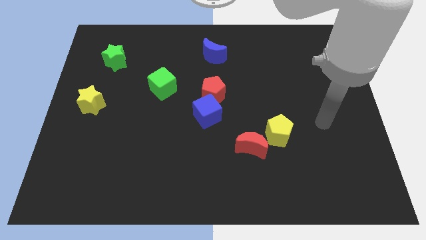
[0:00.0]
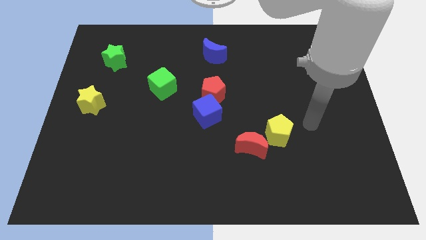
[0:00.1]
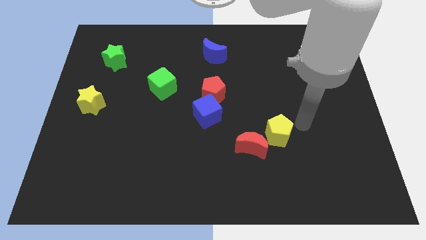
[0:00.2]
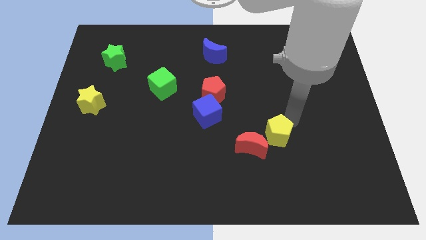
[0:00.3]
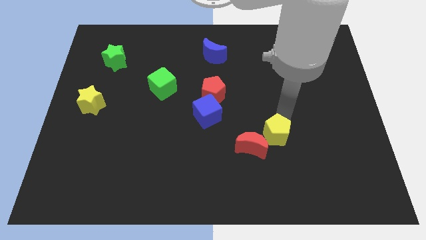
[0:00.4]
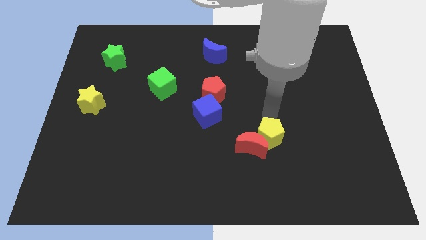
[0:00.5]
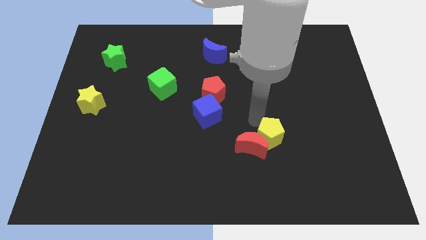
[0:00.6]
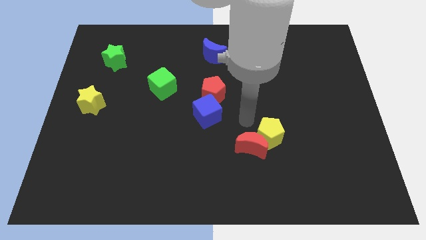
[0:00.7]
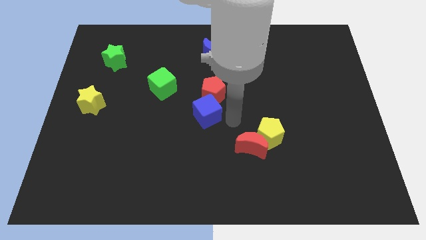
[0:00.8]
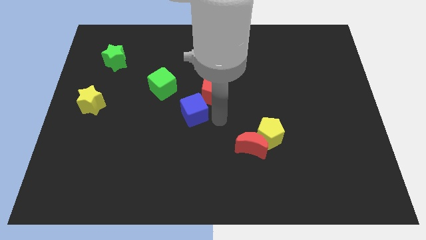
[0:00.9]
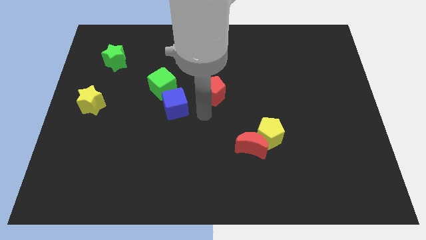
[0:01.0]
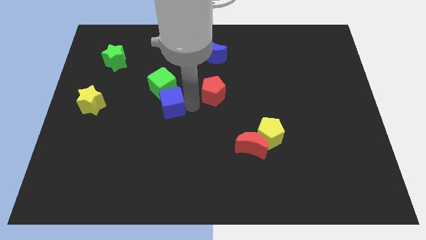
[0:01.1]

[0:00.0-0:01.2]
separate the red pentagon from the blue cube

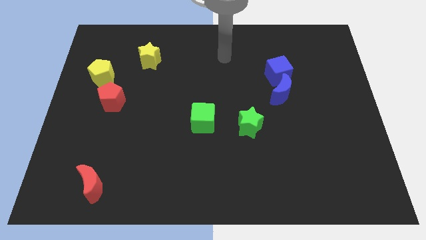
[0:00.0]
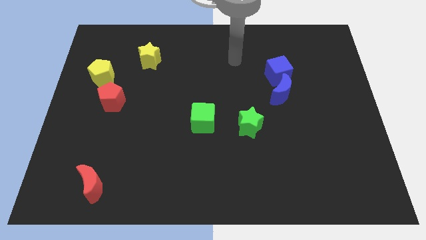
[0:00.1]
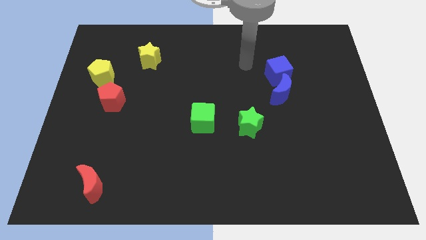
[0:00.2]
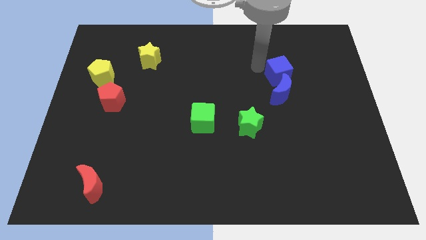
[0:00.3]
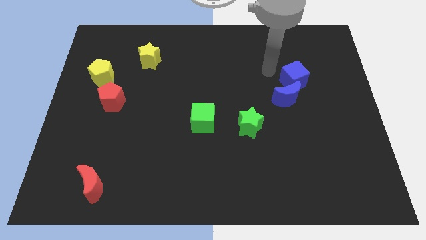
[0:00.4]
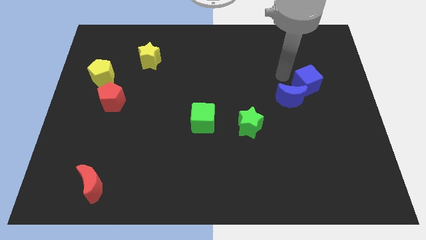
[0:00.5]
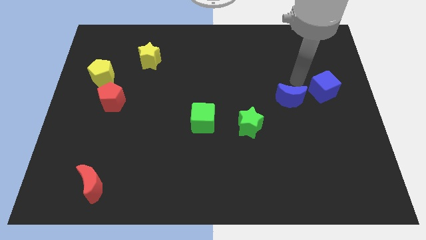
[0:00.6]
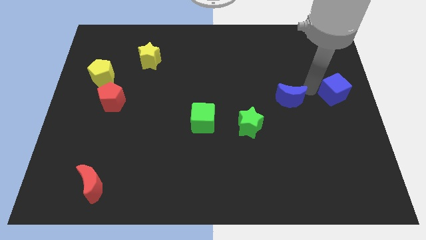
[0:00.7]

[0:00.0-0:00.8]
move the blue moon away from the blue cube

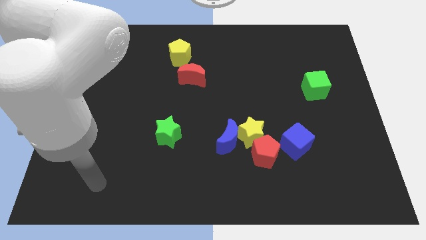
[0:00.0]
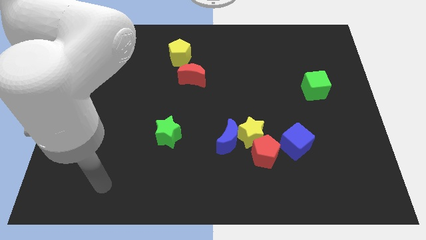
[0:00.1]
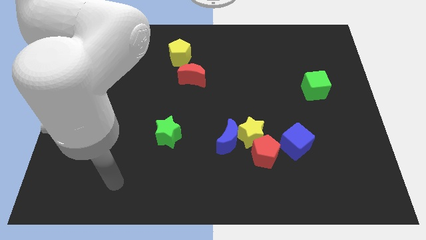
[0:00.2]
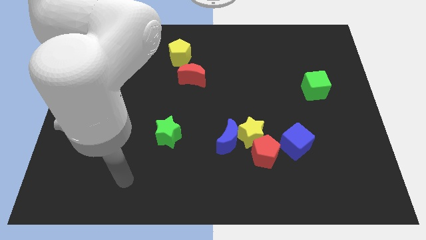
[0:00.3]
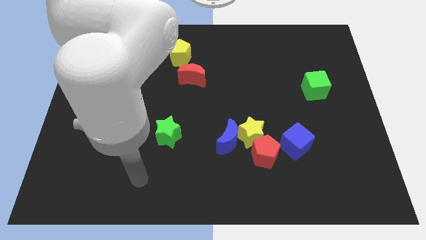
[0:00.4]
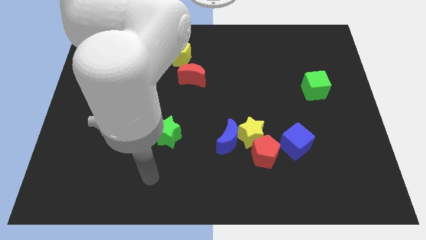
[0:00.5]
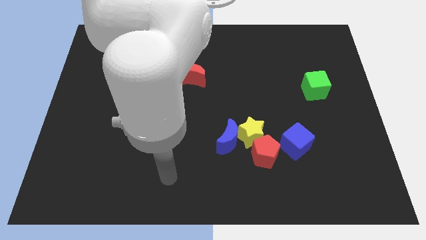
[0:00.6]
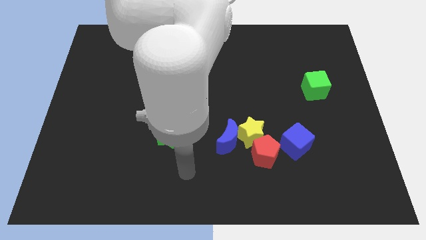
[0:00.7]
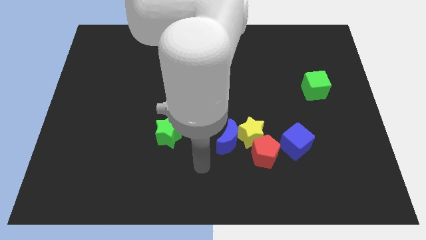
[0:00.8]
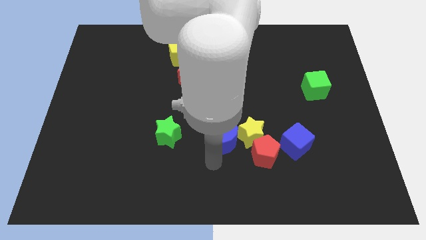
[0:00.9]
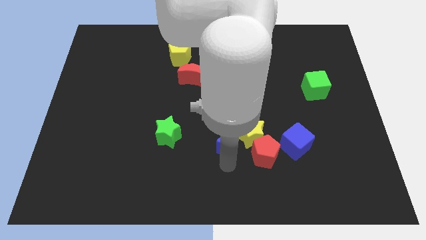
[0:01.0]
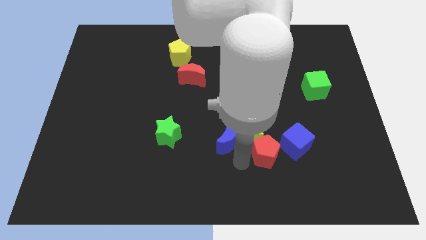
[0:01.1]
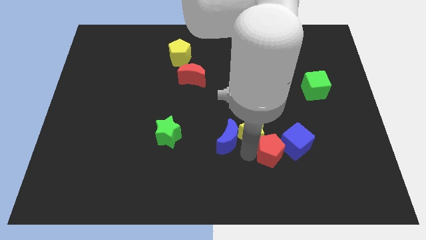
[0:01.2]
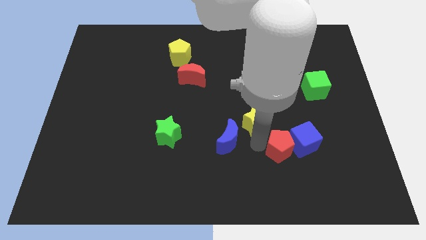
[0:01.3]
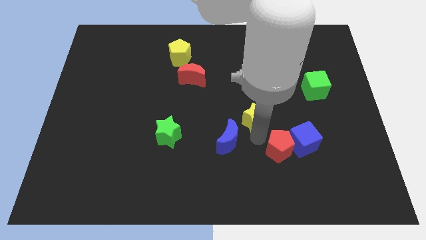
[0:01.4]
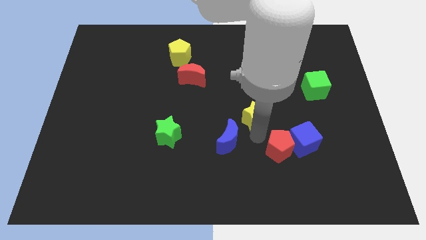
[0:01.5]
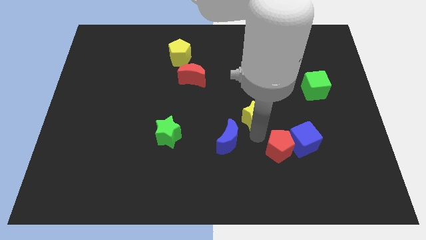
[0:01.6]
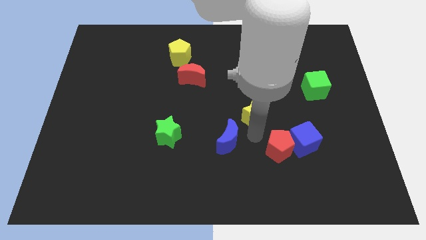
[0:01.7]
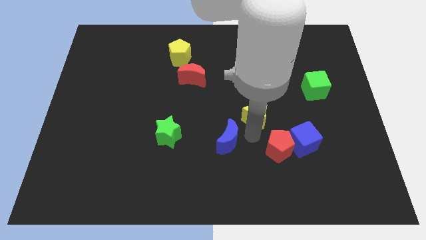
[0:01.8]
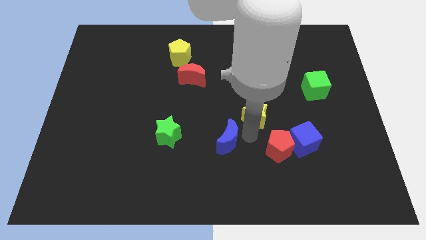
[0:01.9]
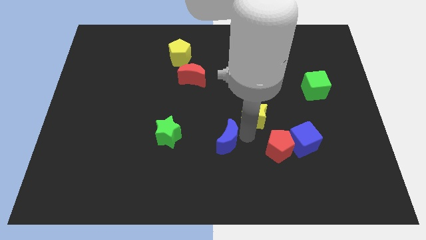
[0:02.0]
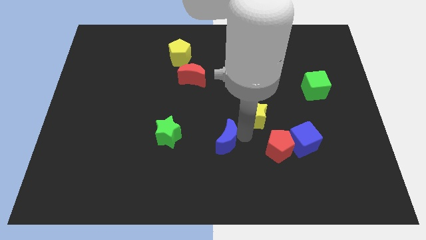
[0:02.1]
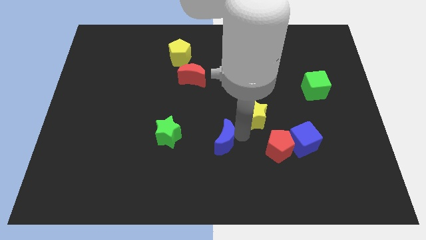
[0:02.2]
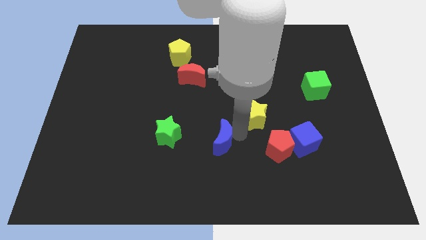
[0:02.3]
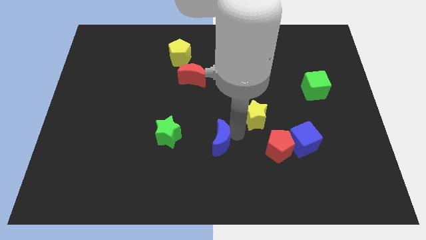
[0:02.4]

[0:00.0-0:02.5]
pull the blue moon apart from the yellow star and red pentagon

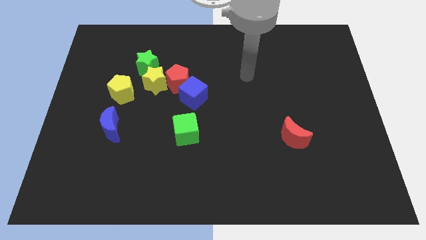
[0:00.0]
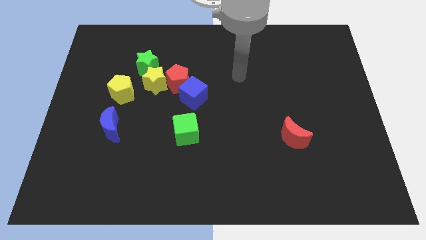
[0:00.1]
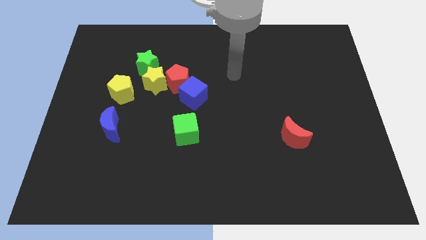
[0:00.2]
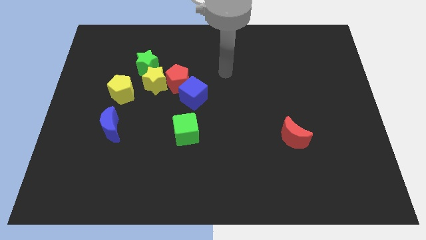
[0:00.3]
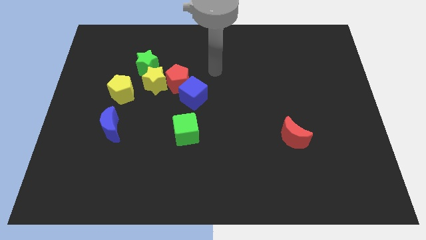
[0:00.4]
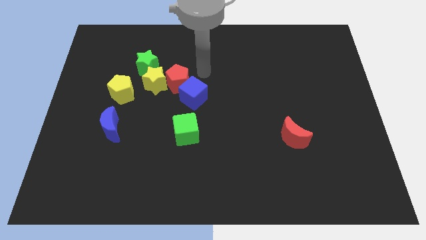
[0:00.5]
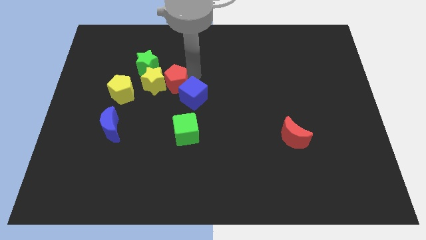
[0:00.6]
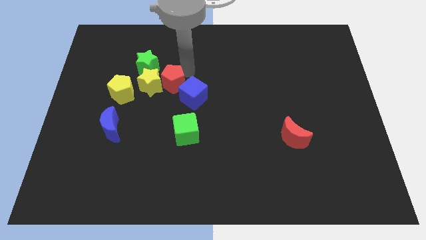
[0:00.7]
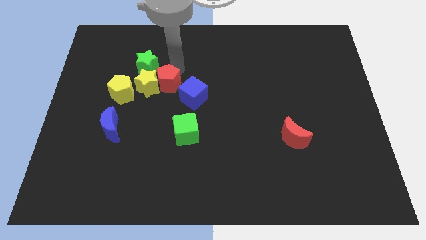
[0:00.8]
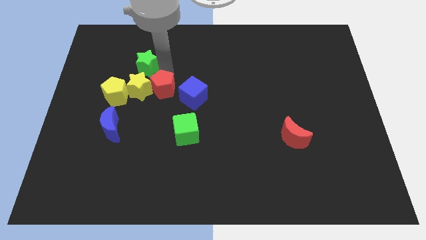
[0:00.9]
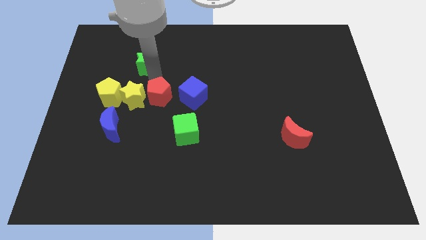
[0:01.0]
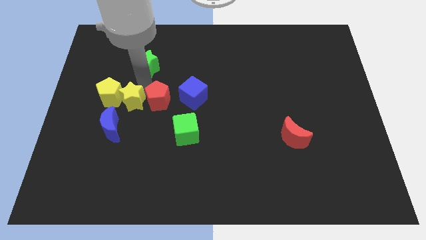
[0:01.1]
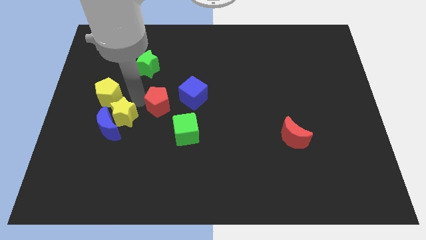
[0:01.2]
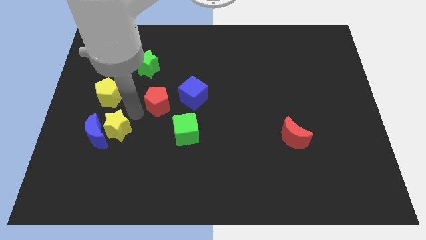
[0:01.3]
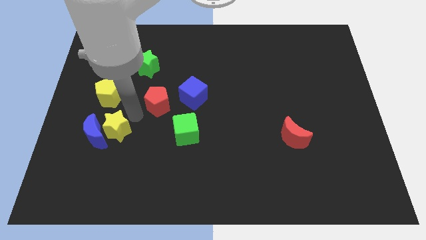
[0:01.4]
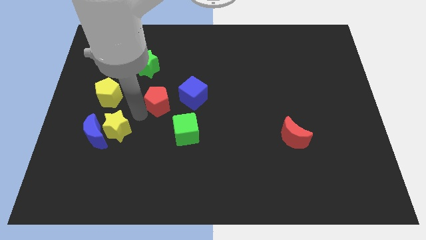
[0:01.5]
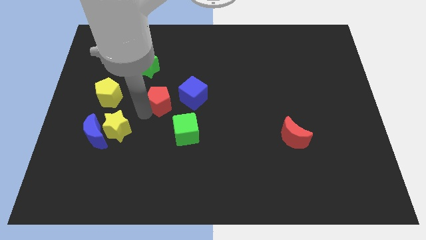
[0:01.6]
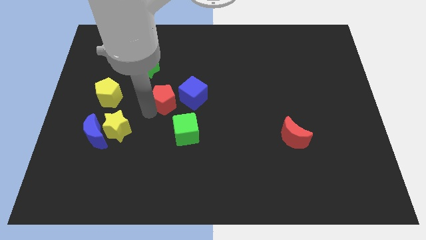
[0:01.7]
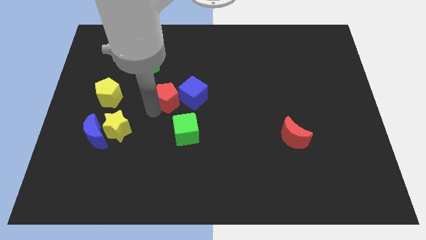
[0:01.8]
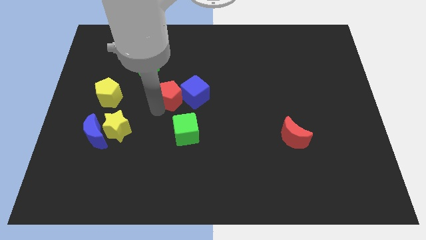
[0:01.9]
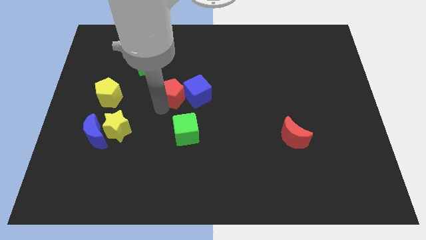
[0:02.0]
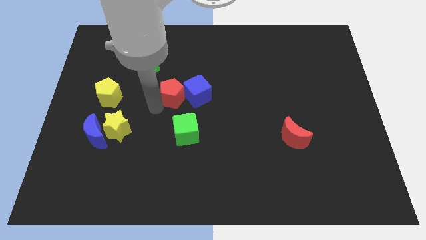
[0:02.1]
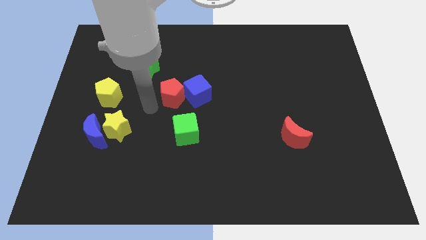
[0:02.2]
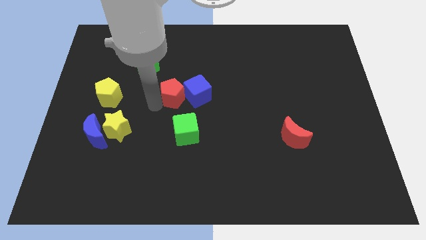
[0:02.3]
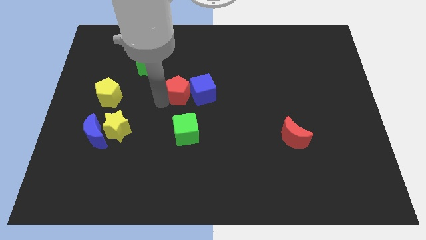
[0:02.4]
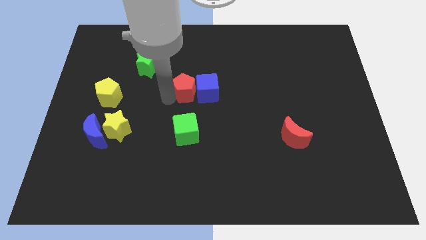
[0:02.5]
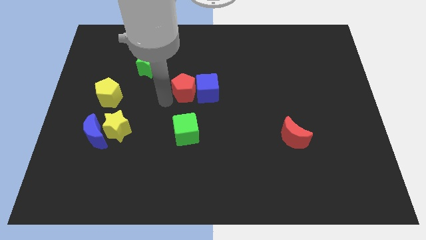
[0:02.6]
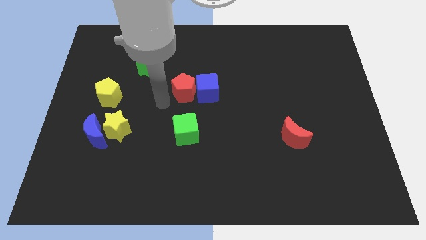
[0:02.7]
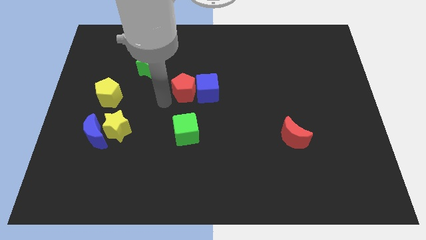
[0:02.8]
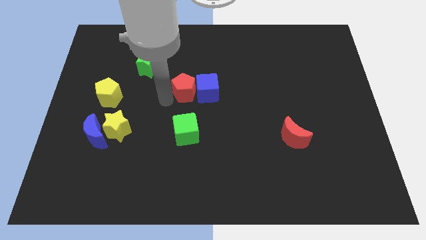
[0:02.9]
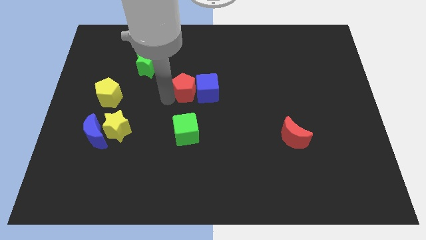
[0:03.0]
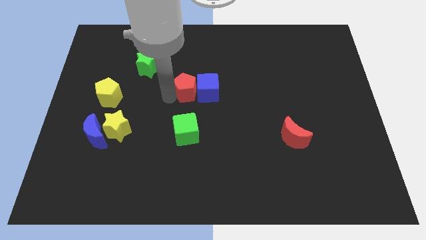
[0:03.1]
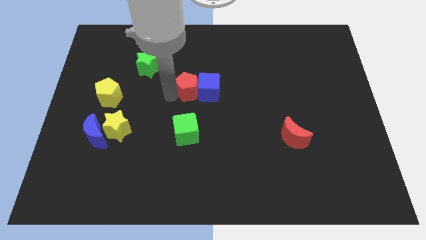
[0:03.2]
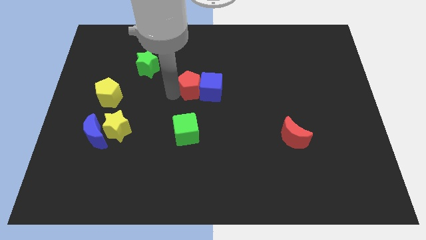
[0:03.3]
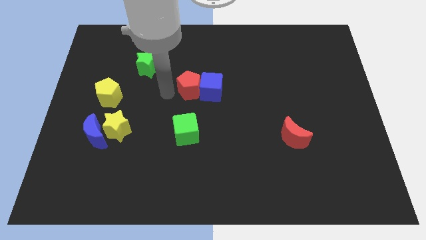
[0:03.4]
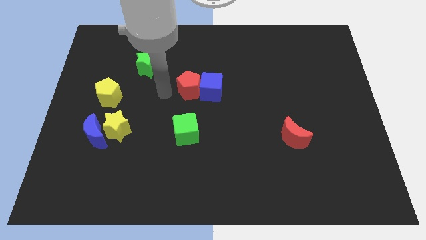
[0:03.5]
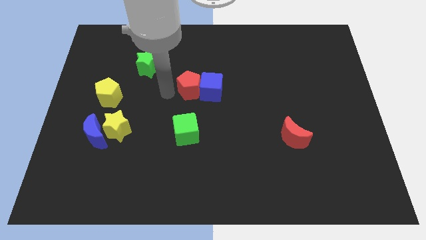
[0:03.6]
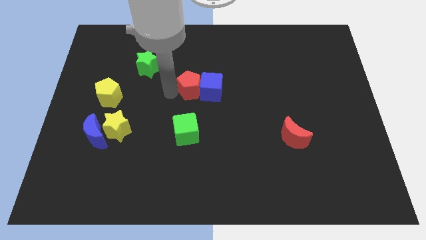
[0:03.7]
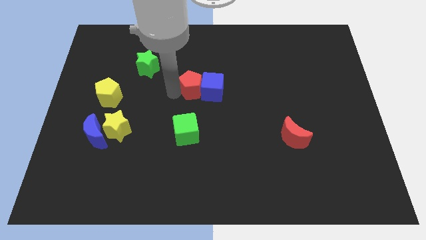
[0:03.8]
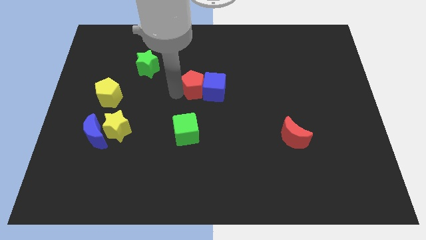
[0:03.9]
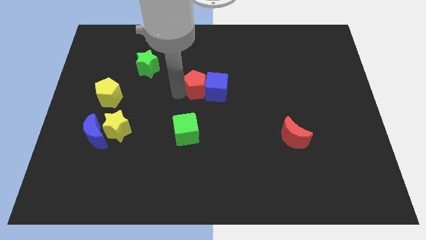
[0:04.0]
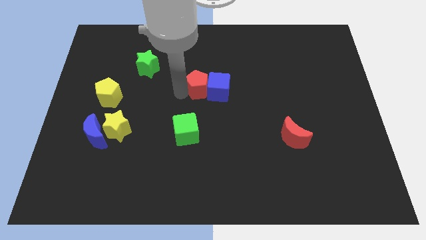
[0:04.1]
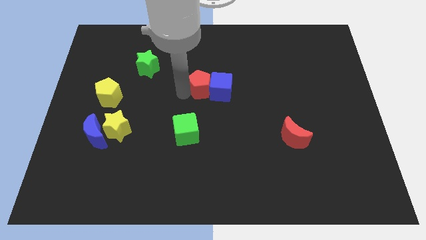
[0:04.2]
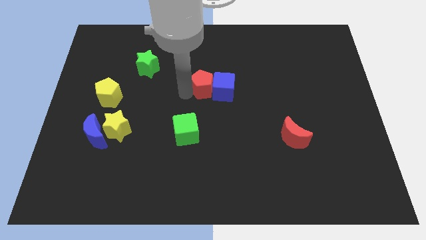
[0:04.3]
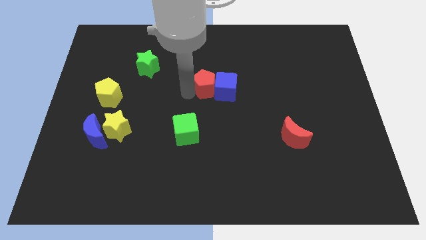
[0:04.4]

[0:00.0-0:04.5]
move the red pentagon away from the yellow star, blue cube, and green star

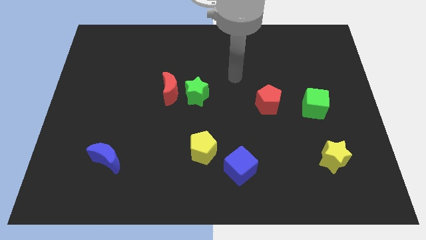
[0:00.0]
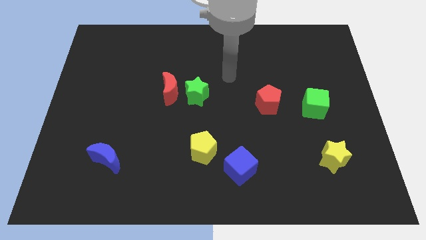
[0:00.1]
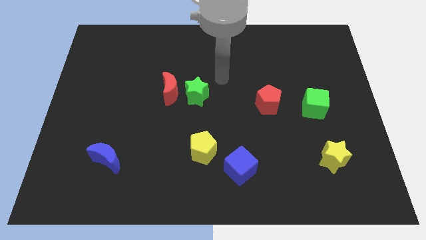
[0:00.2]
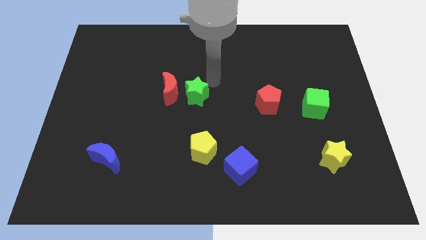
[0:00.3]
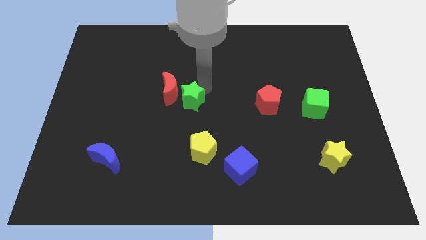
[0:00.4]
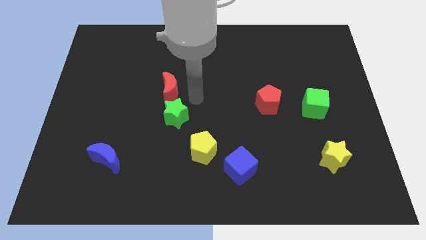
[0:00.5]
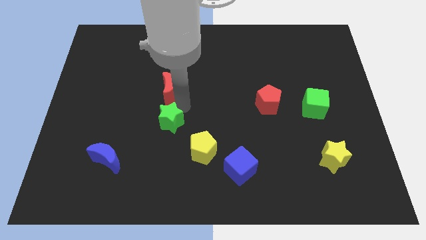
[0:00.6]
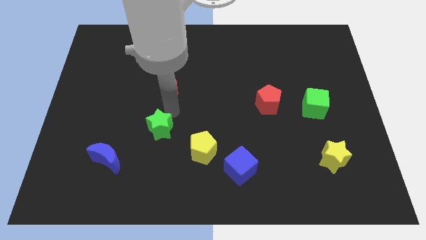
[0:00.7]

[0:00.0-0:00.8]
move the red moon away from the green star
